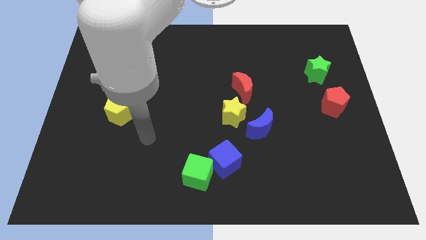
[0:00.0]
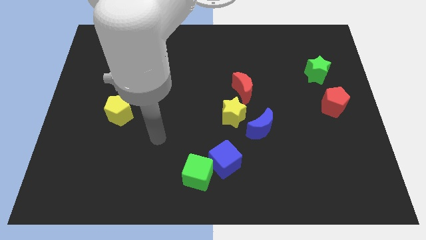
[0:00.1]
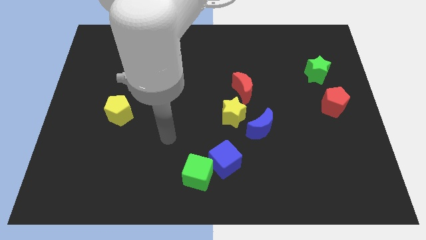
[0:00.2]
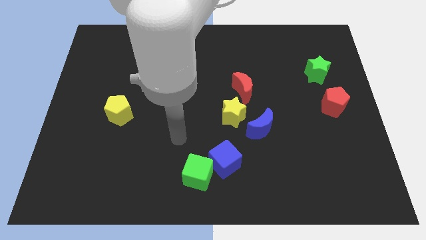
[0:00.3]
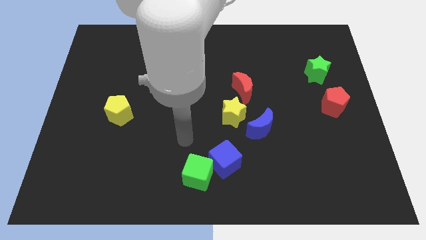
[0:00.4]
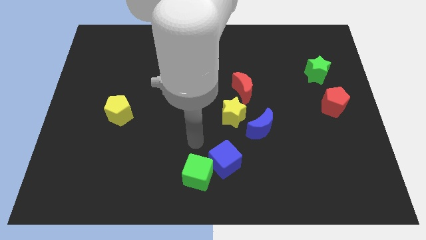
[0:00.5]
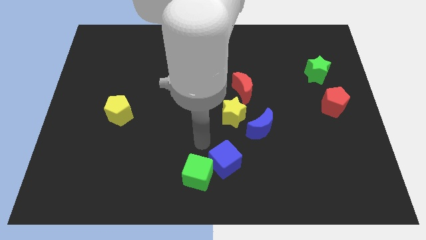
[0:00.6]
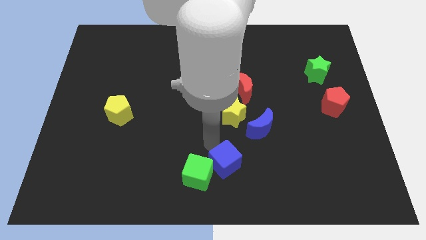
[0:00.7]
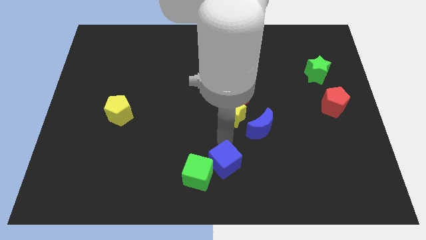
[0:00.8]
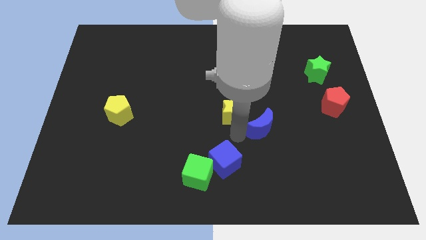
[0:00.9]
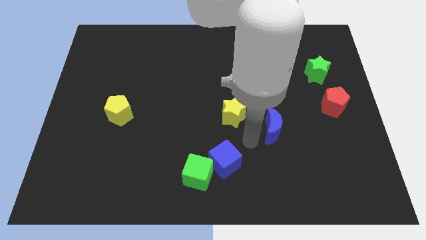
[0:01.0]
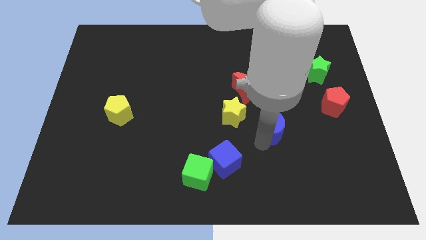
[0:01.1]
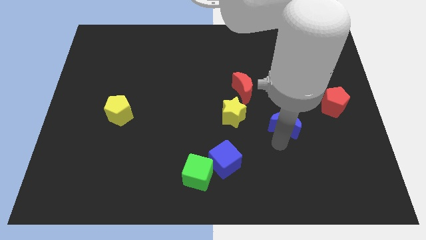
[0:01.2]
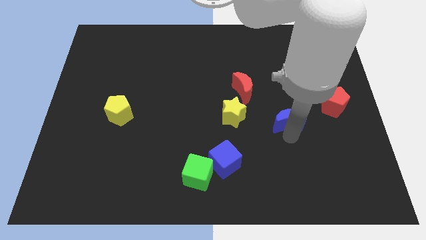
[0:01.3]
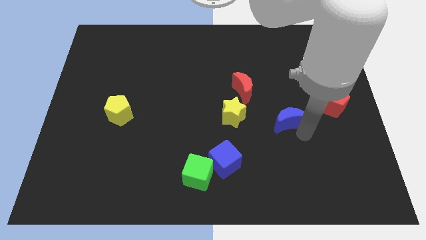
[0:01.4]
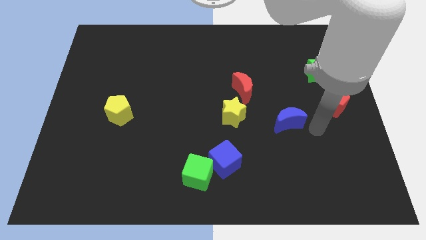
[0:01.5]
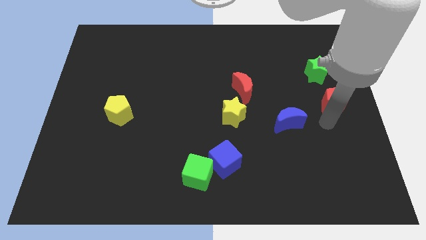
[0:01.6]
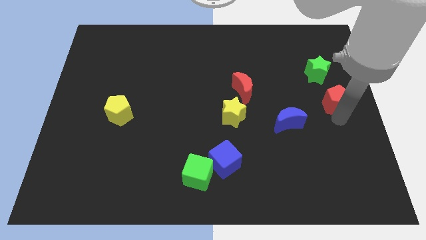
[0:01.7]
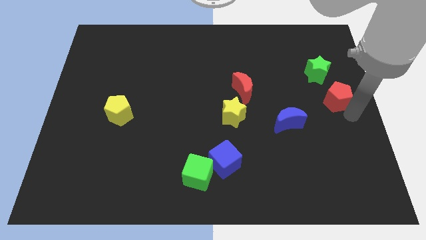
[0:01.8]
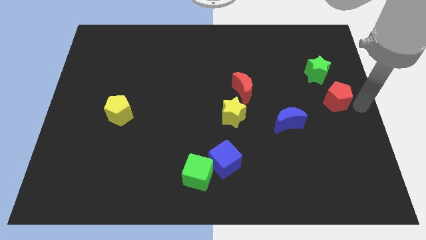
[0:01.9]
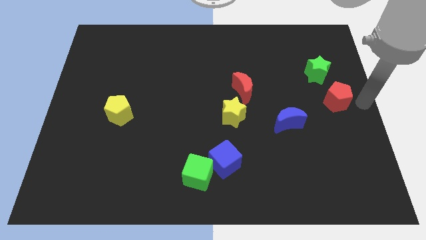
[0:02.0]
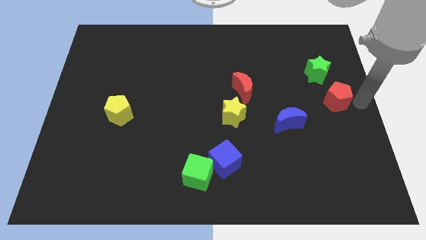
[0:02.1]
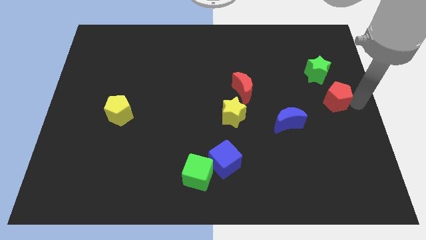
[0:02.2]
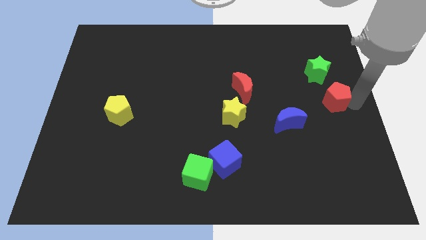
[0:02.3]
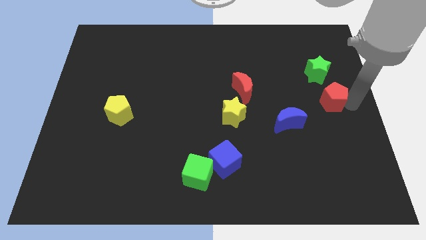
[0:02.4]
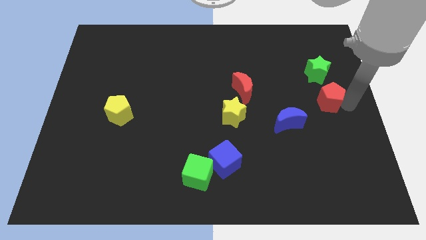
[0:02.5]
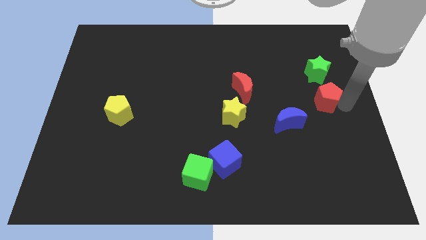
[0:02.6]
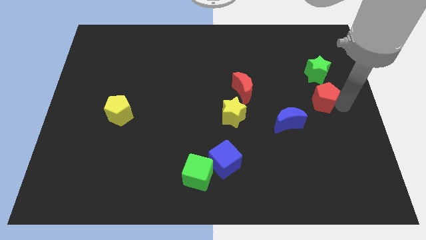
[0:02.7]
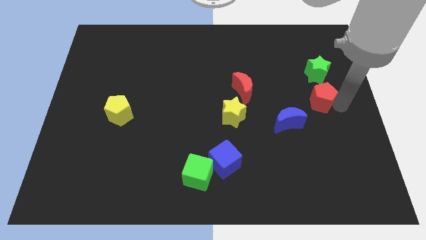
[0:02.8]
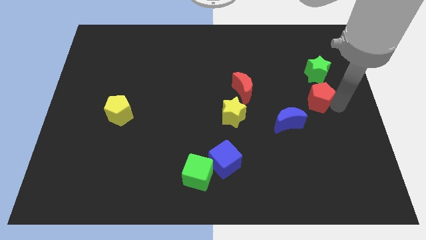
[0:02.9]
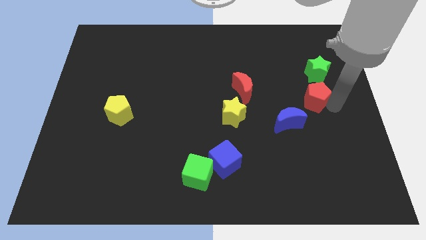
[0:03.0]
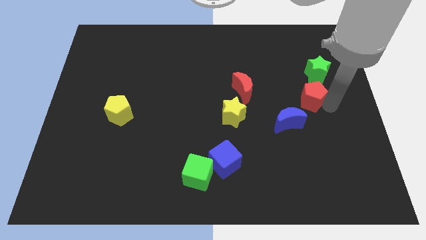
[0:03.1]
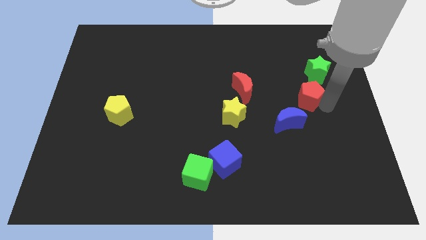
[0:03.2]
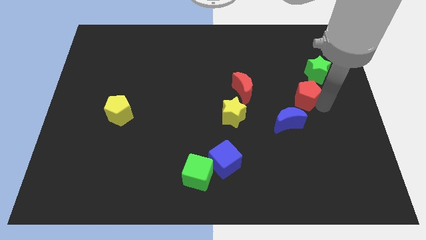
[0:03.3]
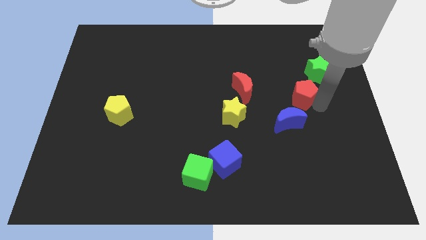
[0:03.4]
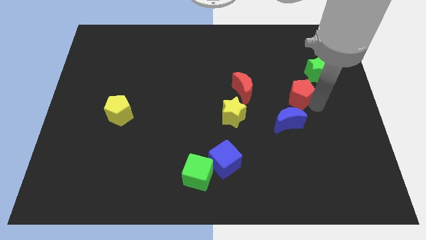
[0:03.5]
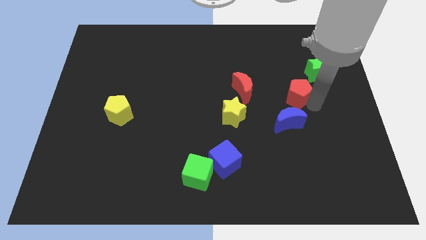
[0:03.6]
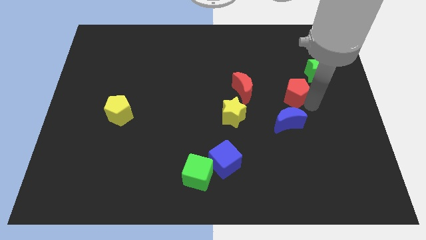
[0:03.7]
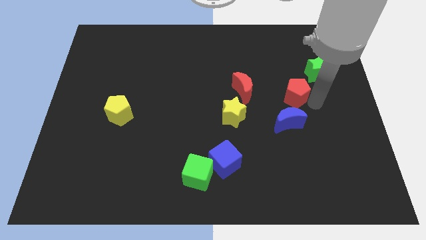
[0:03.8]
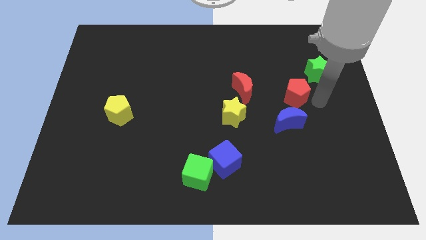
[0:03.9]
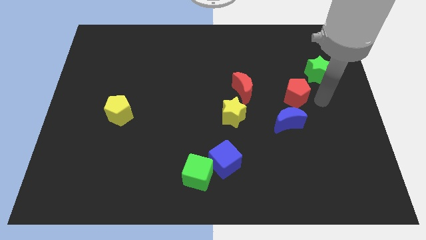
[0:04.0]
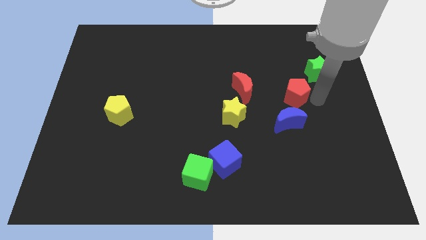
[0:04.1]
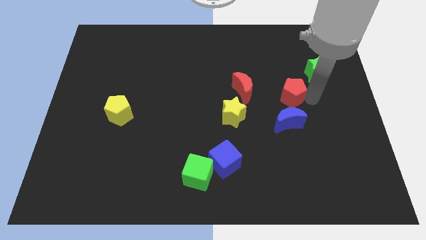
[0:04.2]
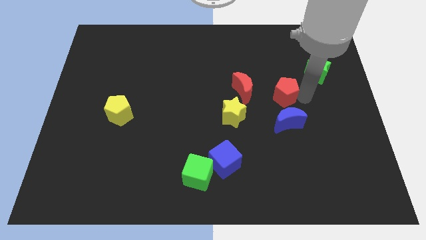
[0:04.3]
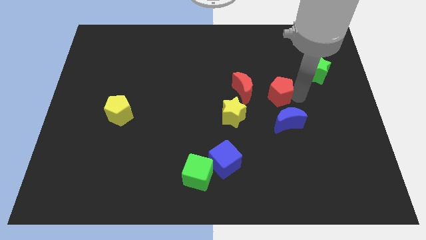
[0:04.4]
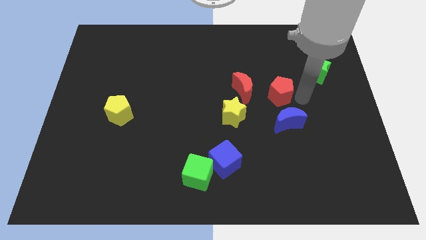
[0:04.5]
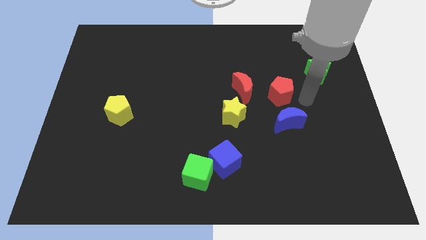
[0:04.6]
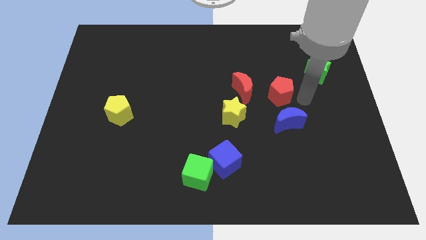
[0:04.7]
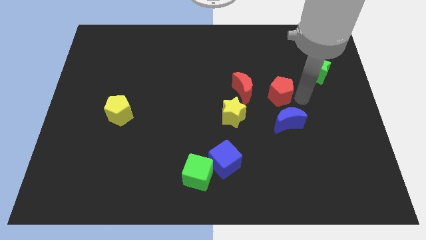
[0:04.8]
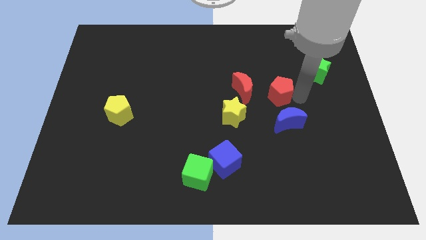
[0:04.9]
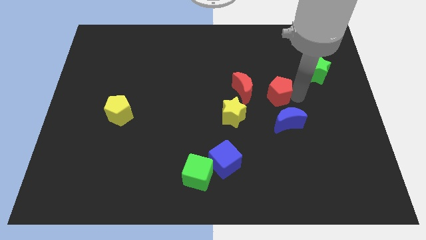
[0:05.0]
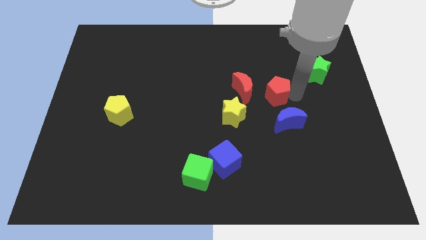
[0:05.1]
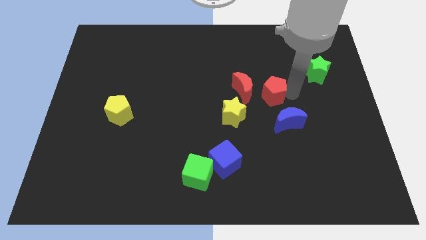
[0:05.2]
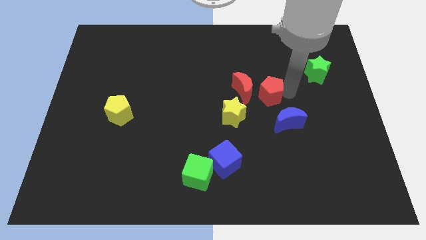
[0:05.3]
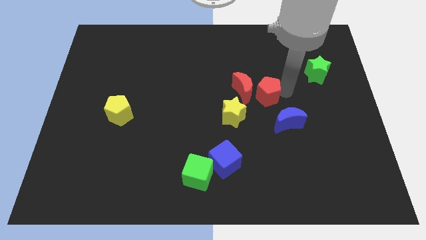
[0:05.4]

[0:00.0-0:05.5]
put the red pentagon to the red moon

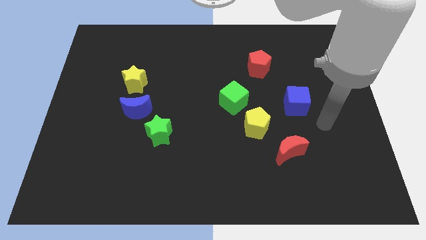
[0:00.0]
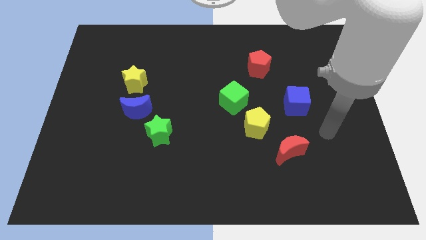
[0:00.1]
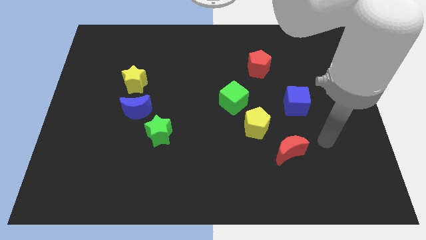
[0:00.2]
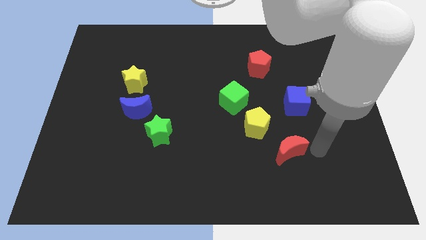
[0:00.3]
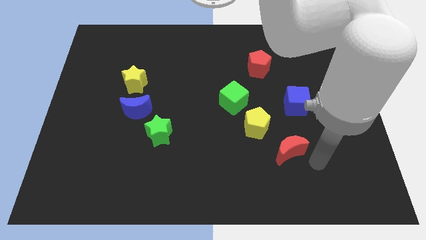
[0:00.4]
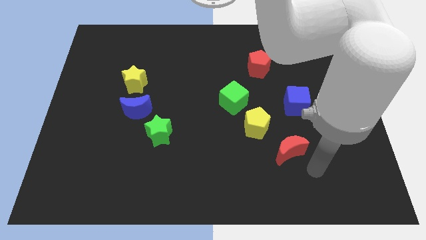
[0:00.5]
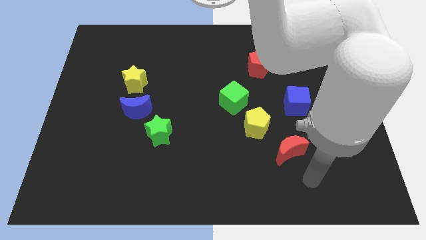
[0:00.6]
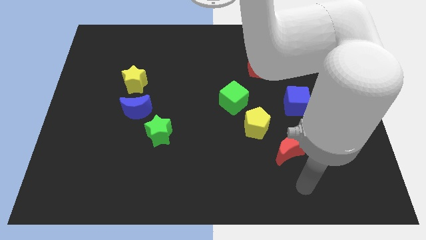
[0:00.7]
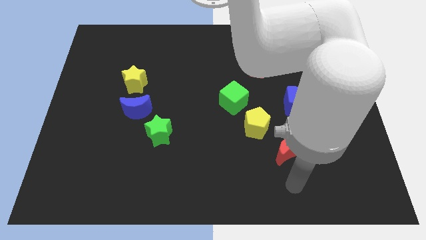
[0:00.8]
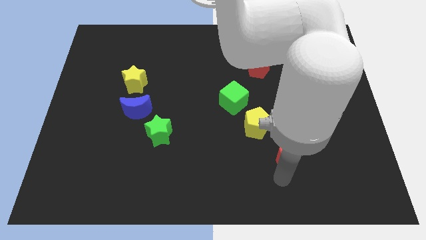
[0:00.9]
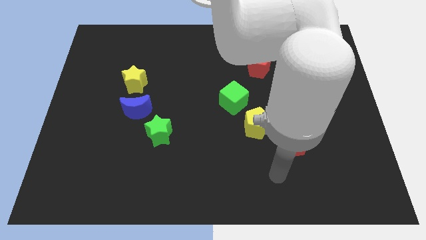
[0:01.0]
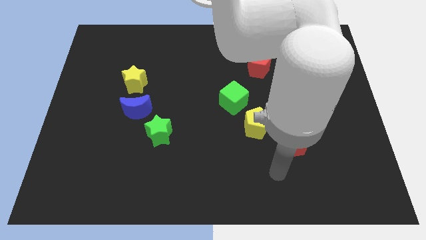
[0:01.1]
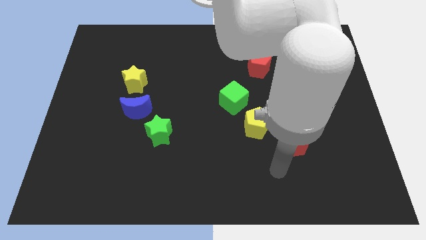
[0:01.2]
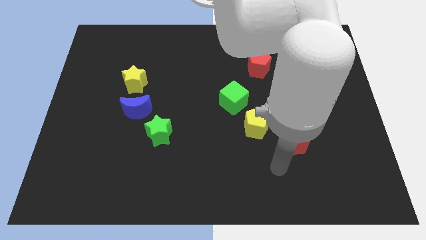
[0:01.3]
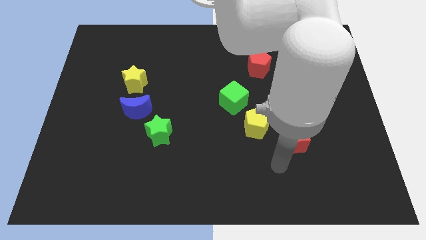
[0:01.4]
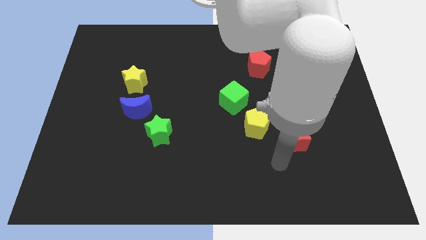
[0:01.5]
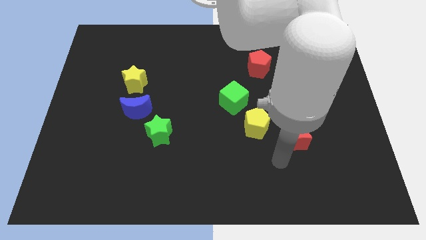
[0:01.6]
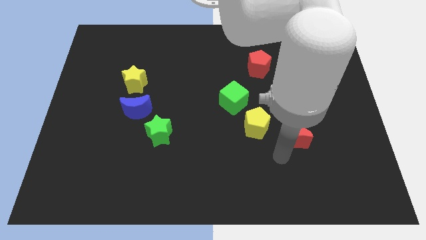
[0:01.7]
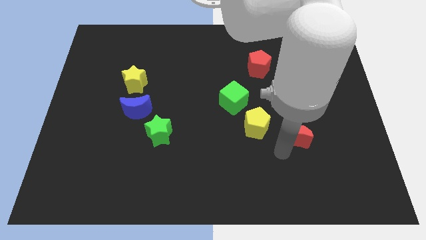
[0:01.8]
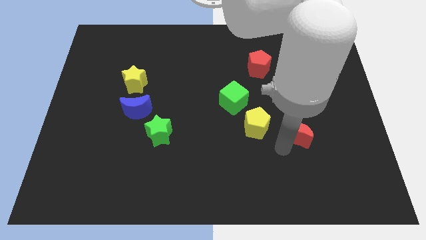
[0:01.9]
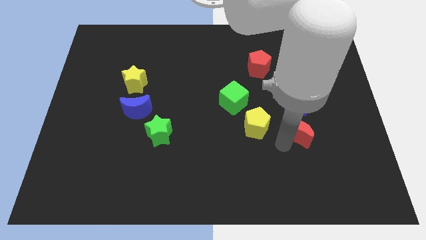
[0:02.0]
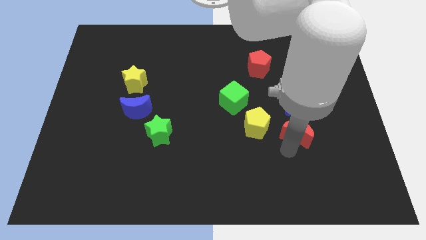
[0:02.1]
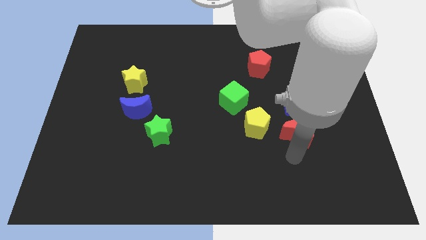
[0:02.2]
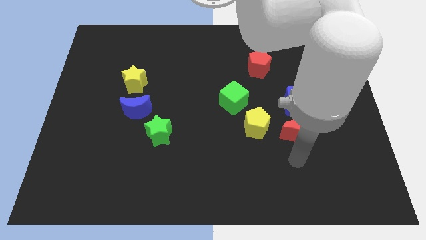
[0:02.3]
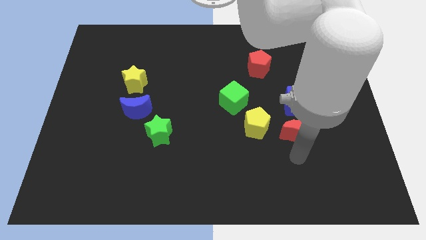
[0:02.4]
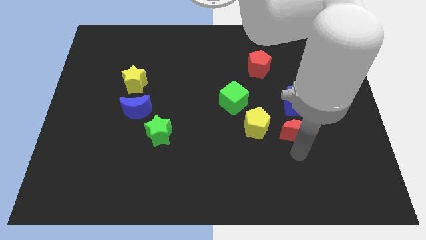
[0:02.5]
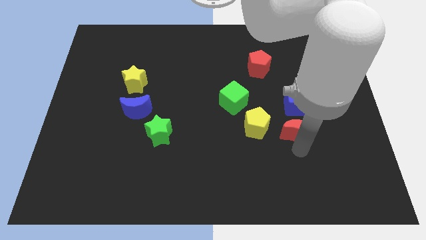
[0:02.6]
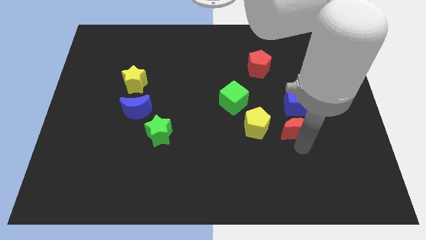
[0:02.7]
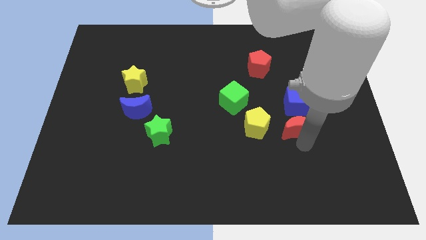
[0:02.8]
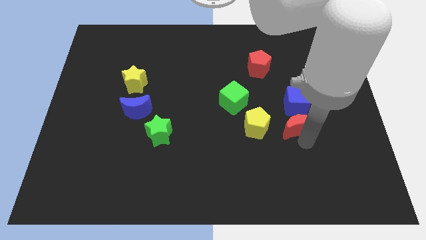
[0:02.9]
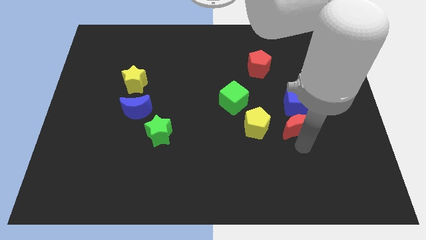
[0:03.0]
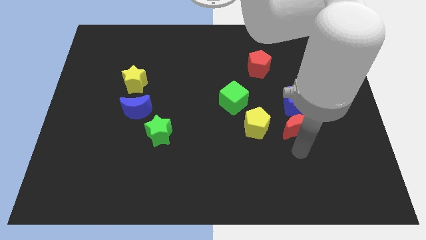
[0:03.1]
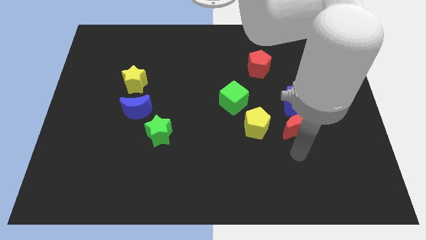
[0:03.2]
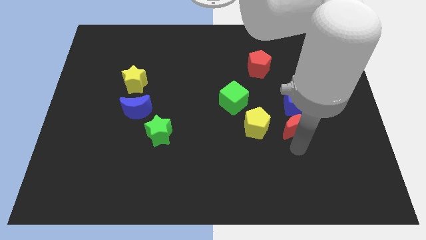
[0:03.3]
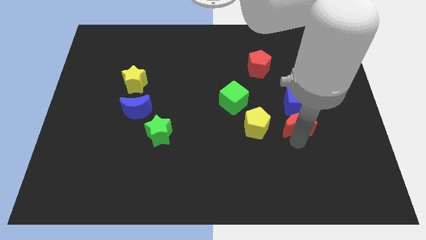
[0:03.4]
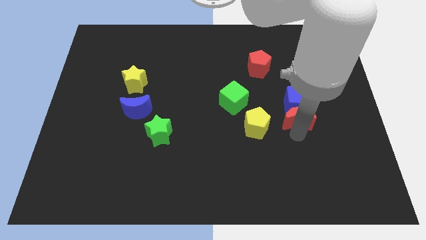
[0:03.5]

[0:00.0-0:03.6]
push the red moon towards the blue cube
